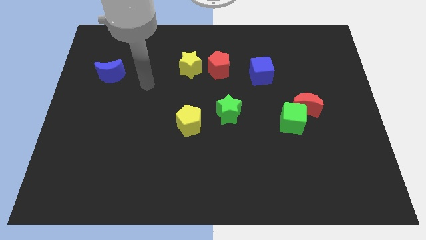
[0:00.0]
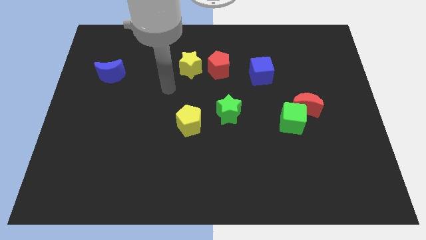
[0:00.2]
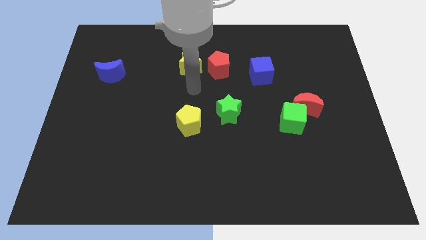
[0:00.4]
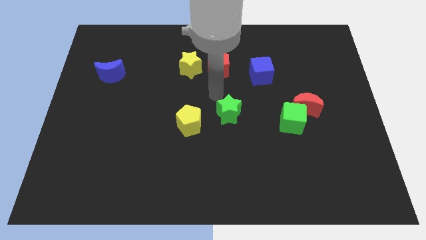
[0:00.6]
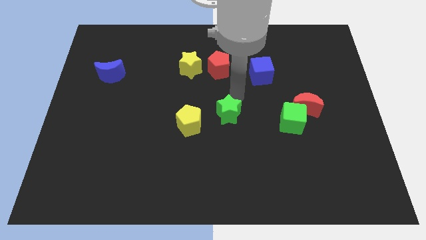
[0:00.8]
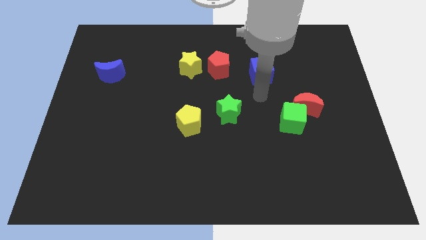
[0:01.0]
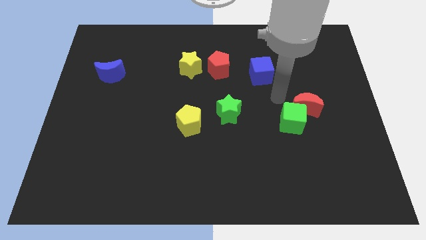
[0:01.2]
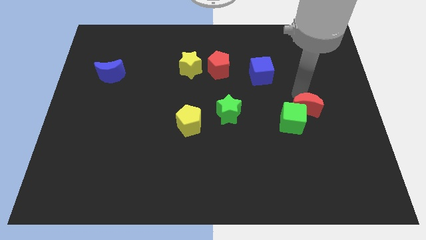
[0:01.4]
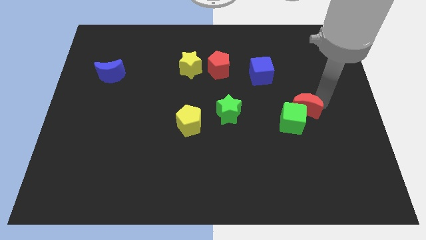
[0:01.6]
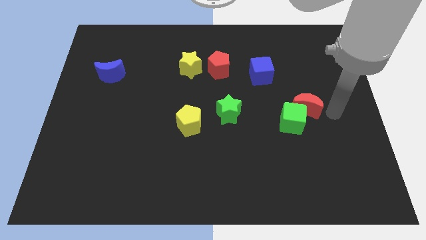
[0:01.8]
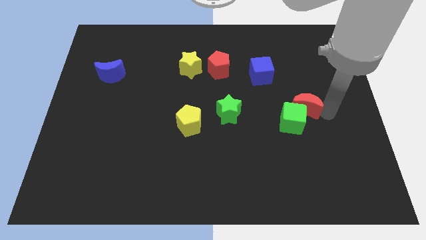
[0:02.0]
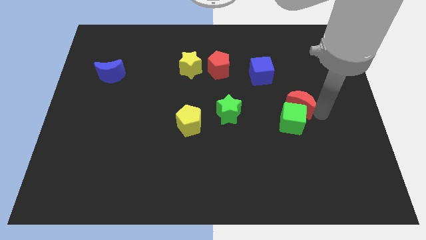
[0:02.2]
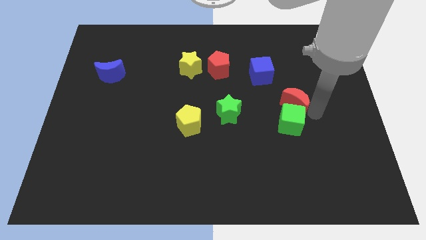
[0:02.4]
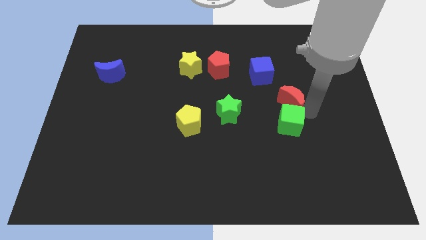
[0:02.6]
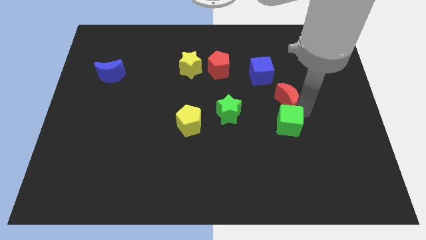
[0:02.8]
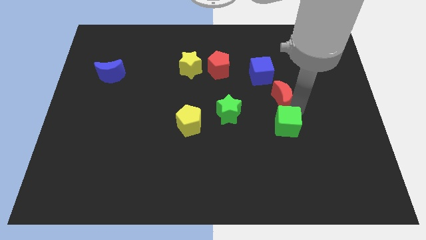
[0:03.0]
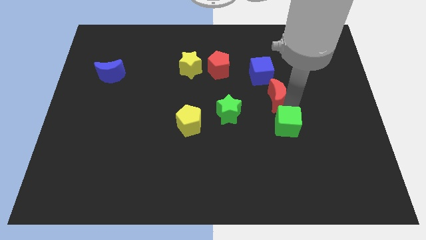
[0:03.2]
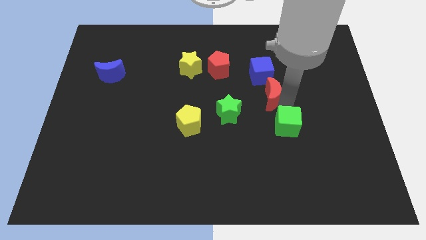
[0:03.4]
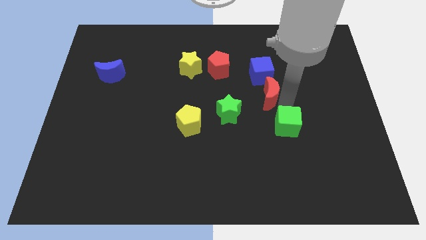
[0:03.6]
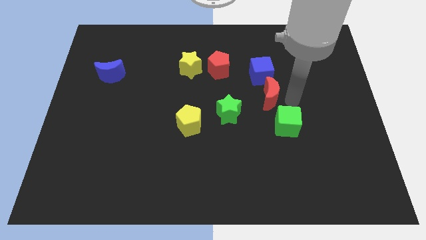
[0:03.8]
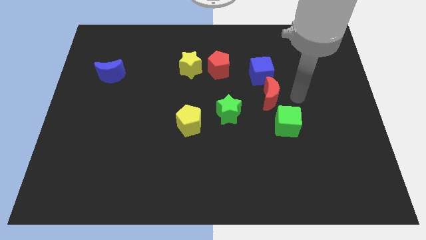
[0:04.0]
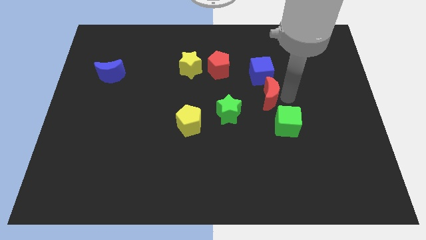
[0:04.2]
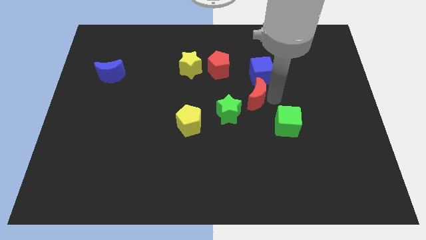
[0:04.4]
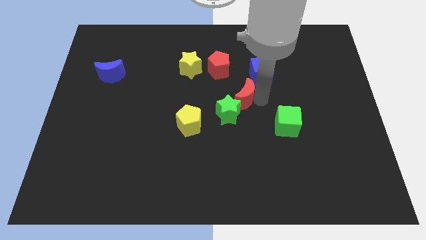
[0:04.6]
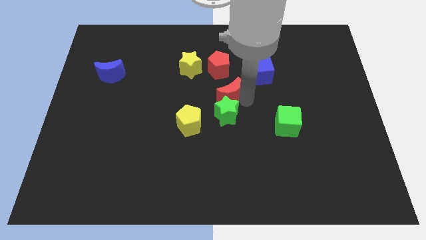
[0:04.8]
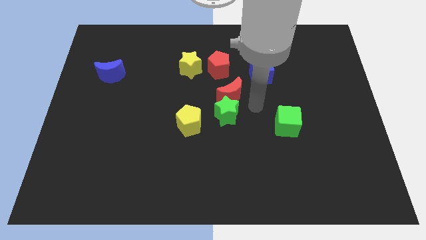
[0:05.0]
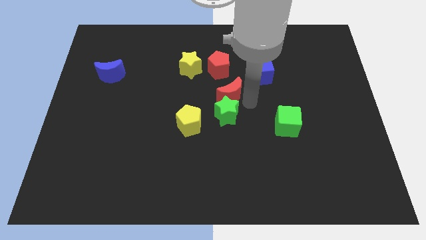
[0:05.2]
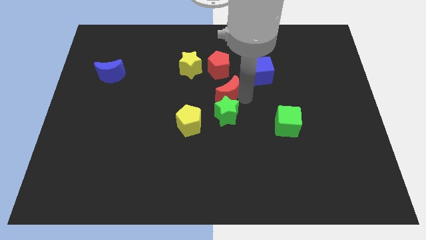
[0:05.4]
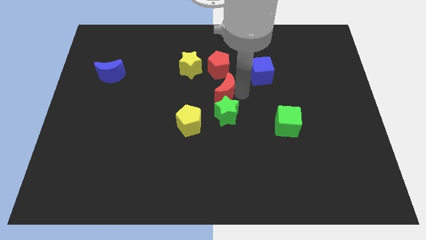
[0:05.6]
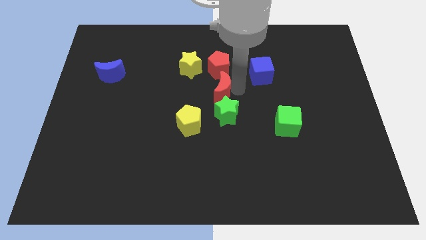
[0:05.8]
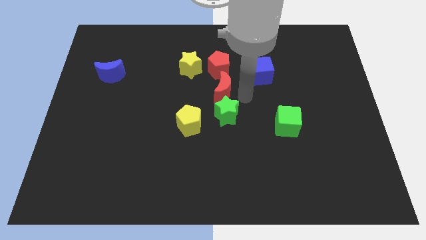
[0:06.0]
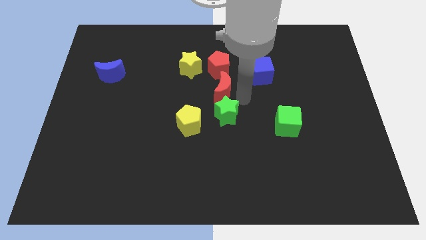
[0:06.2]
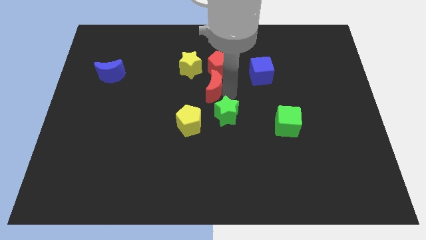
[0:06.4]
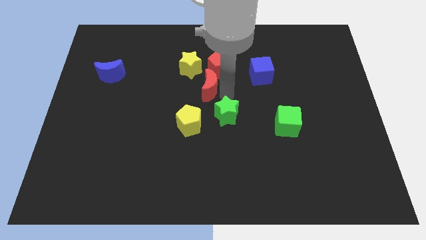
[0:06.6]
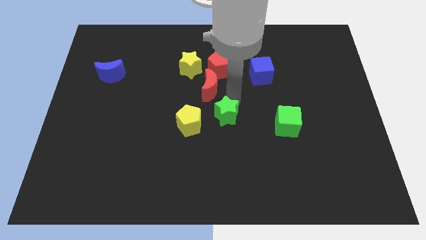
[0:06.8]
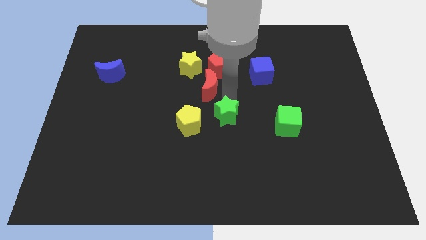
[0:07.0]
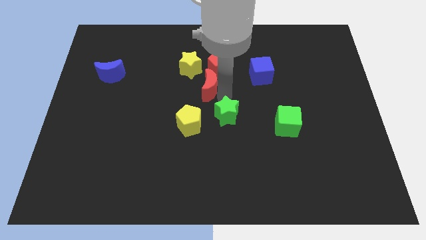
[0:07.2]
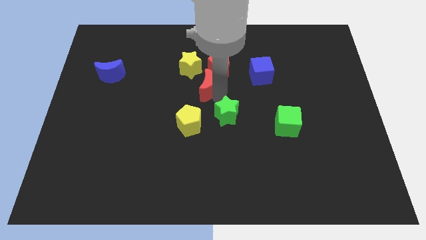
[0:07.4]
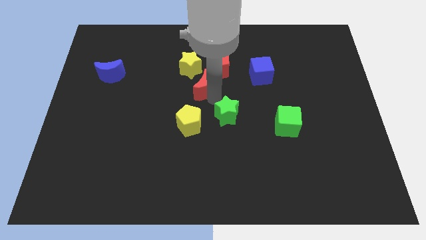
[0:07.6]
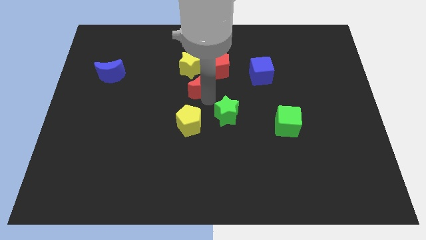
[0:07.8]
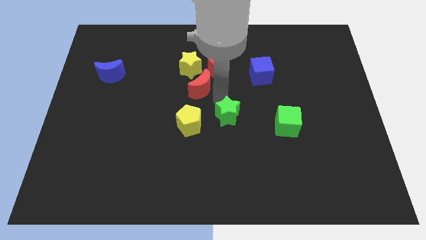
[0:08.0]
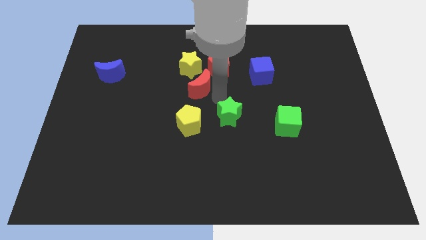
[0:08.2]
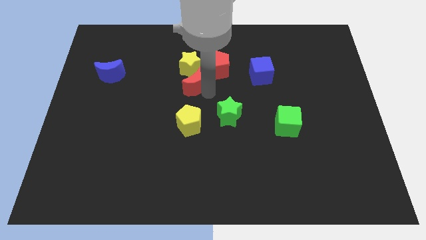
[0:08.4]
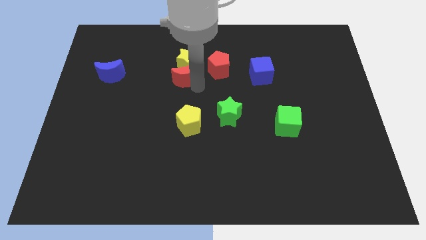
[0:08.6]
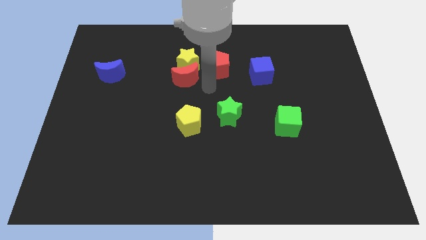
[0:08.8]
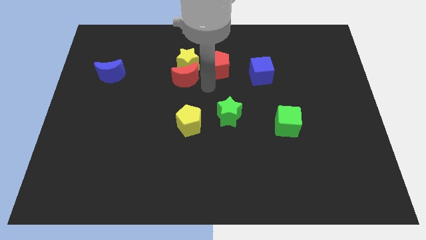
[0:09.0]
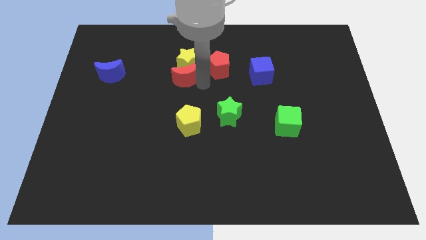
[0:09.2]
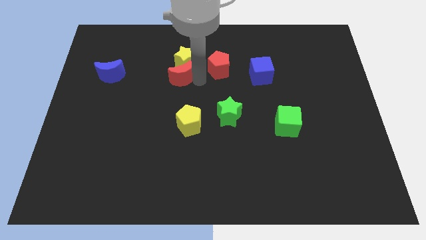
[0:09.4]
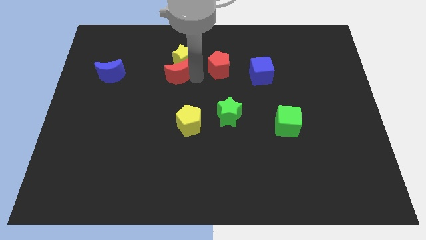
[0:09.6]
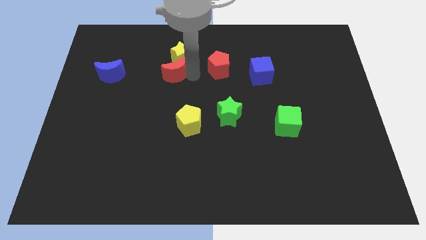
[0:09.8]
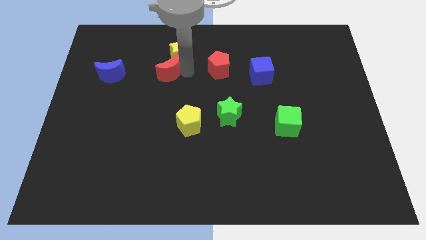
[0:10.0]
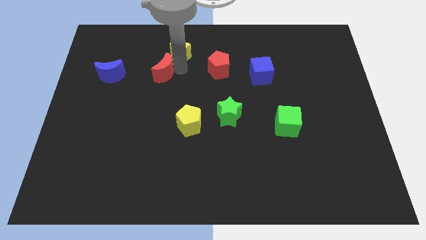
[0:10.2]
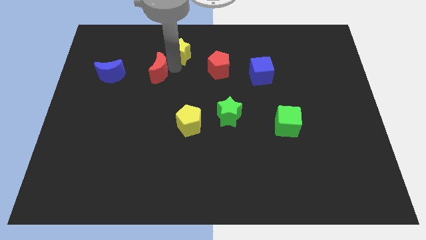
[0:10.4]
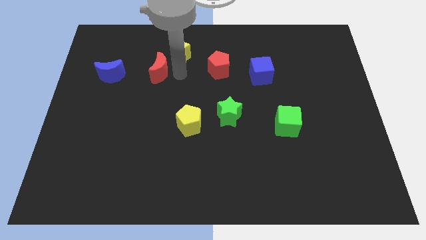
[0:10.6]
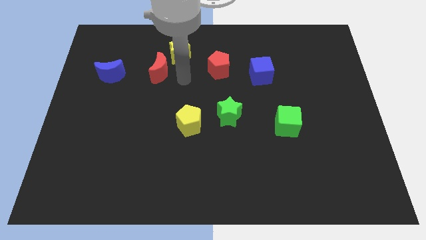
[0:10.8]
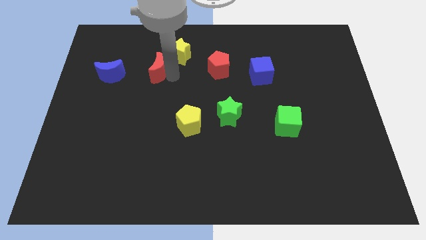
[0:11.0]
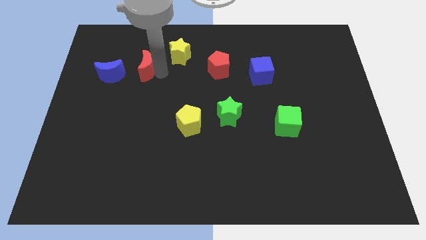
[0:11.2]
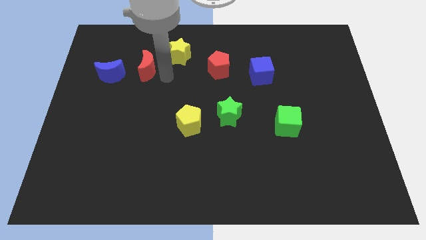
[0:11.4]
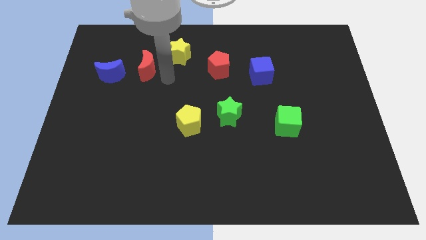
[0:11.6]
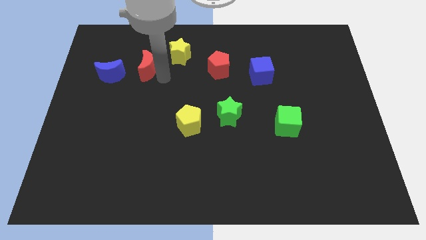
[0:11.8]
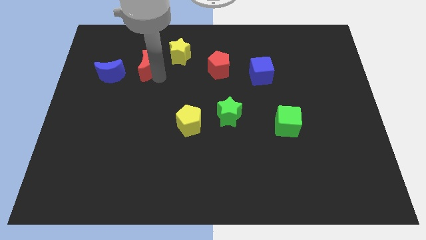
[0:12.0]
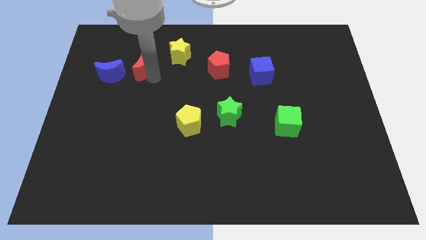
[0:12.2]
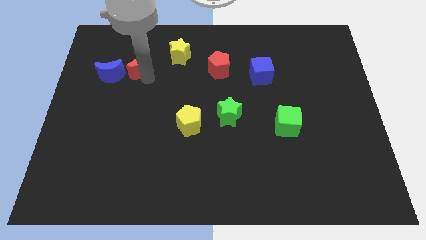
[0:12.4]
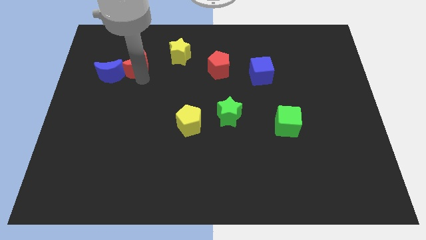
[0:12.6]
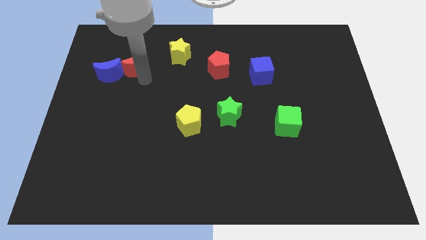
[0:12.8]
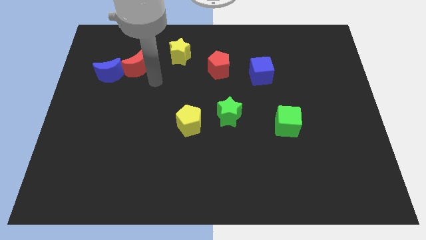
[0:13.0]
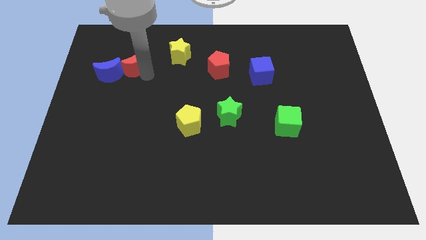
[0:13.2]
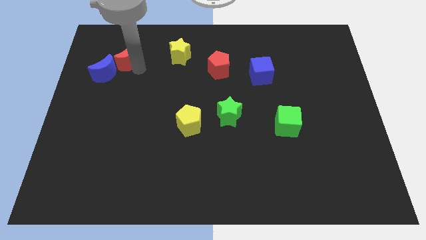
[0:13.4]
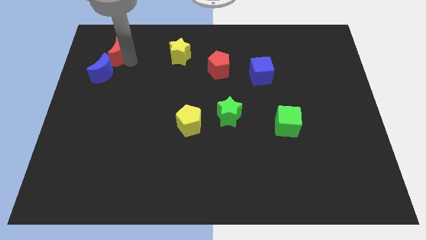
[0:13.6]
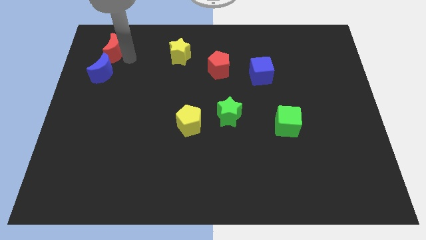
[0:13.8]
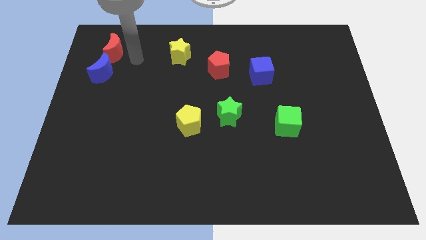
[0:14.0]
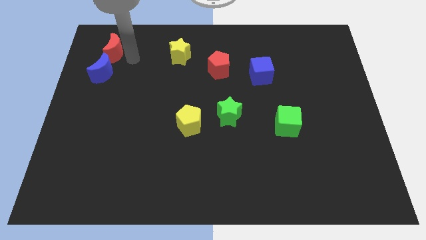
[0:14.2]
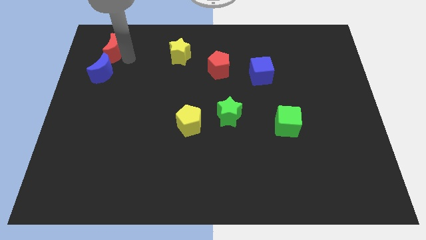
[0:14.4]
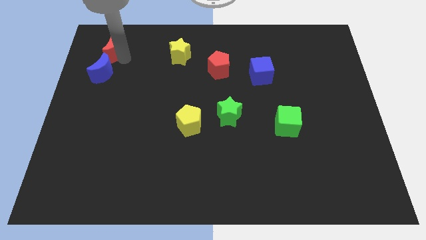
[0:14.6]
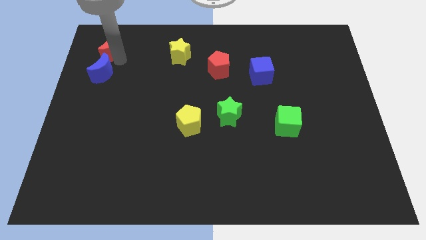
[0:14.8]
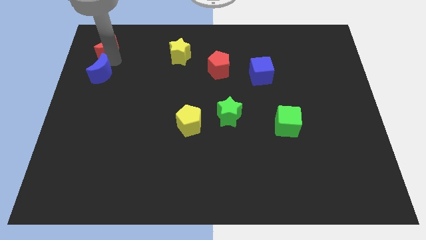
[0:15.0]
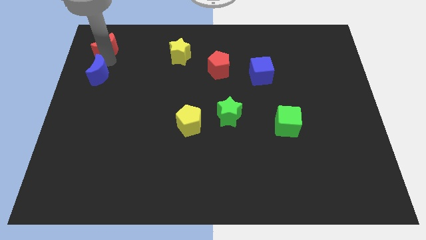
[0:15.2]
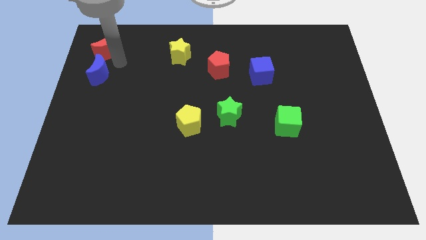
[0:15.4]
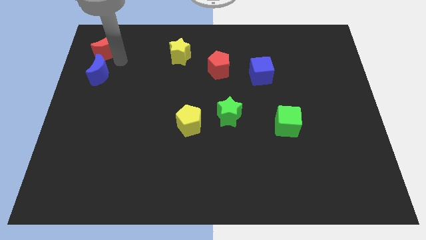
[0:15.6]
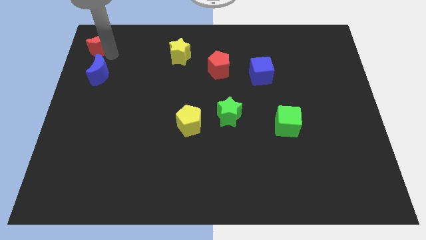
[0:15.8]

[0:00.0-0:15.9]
move the red moon to the upper left corner
